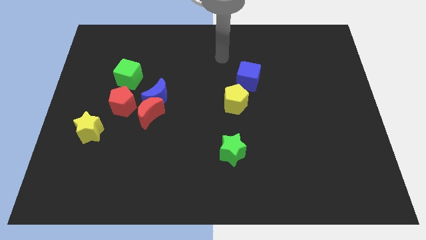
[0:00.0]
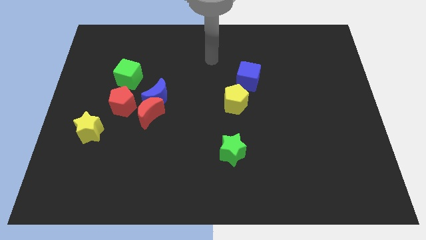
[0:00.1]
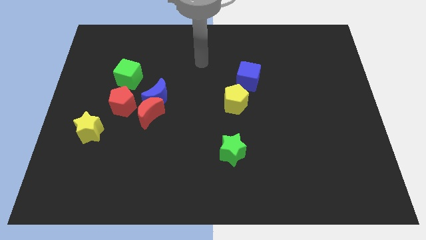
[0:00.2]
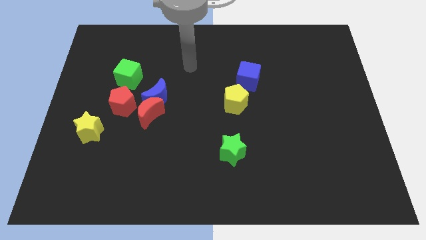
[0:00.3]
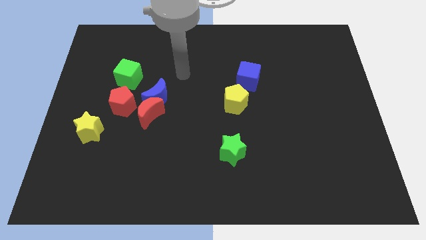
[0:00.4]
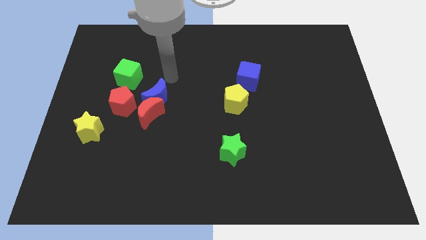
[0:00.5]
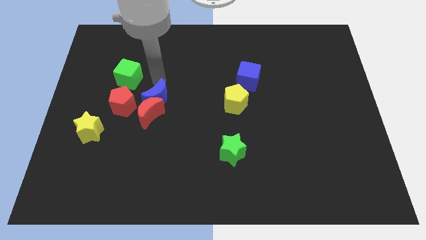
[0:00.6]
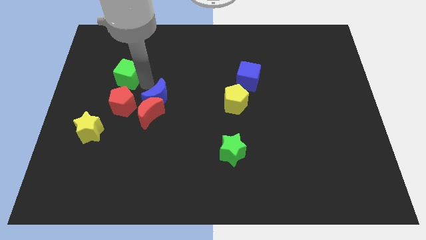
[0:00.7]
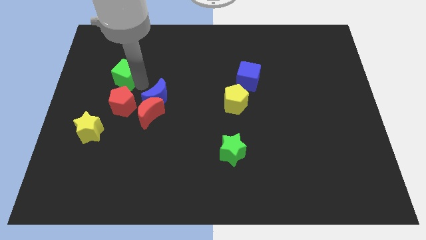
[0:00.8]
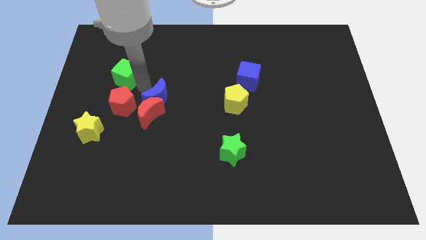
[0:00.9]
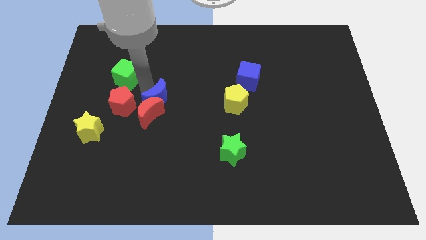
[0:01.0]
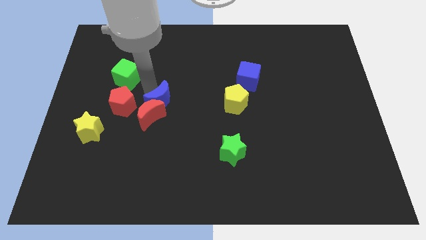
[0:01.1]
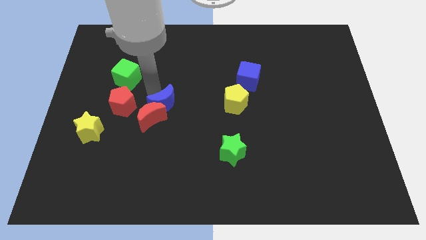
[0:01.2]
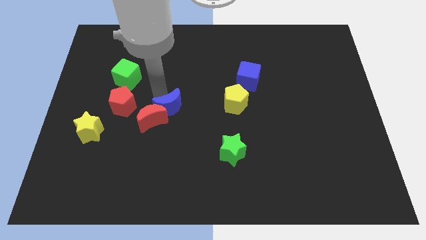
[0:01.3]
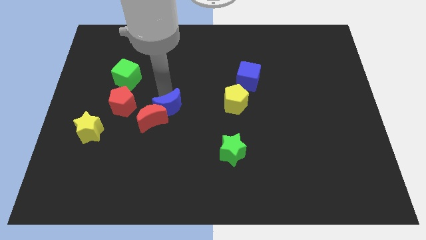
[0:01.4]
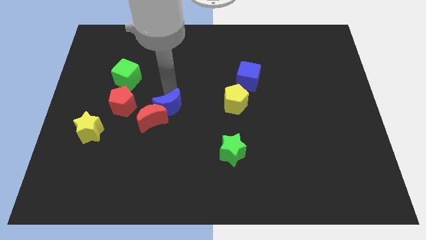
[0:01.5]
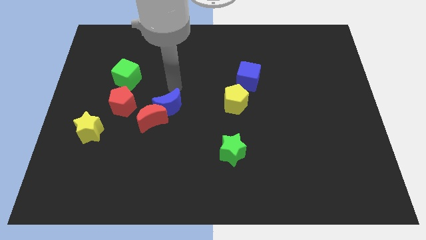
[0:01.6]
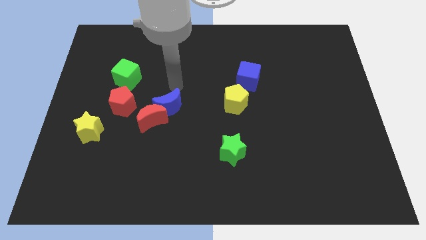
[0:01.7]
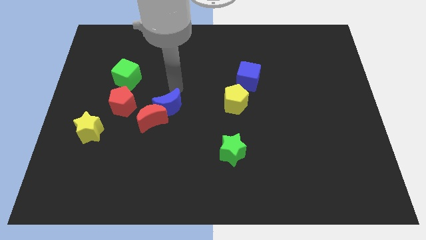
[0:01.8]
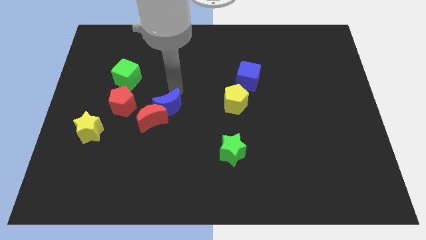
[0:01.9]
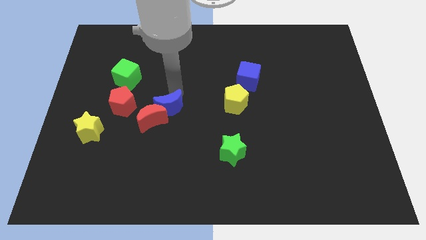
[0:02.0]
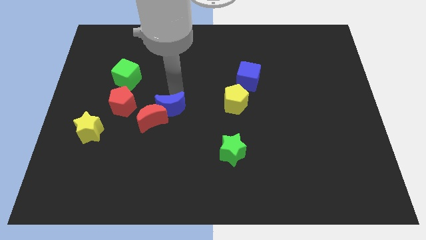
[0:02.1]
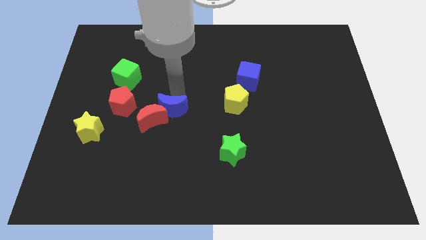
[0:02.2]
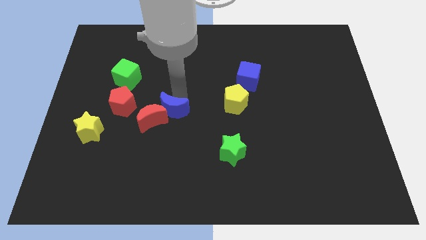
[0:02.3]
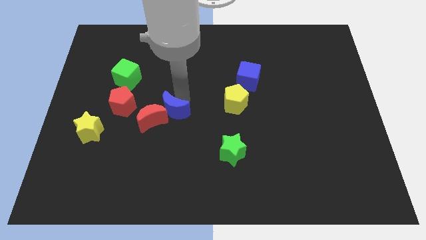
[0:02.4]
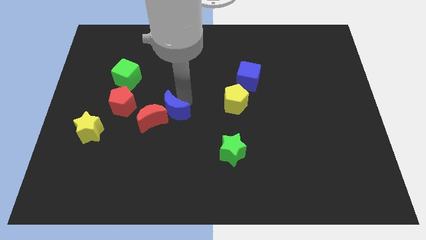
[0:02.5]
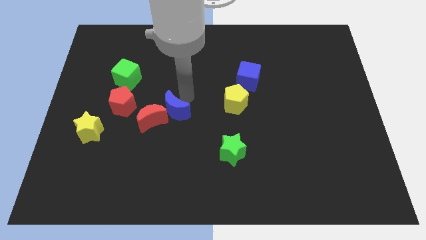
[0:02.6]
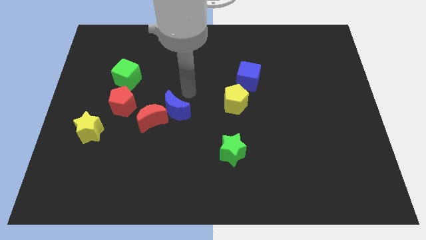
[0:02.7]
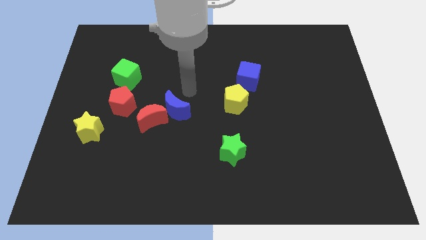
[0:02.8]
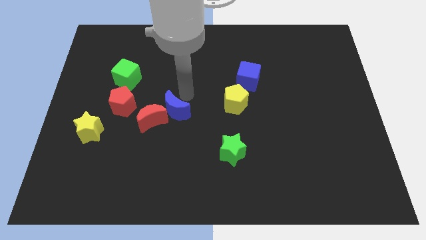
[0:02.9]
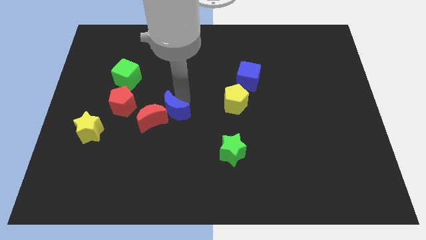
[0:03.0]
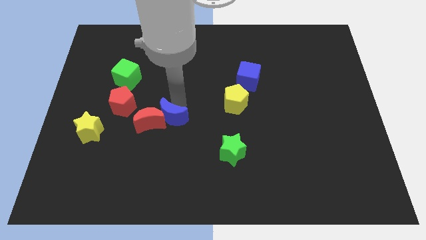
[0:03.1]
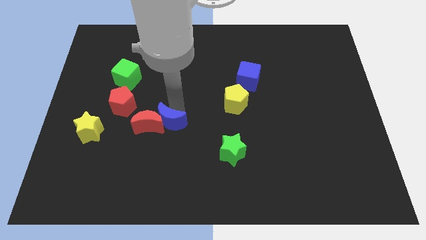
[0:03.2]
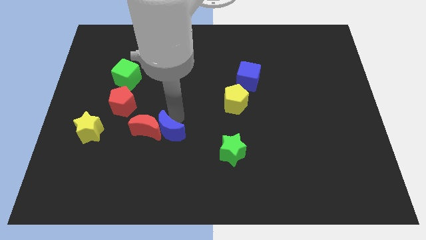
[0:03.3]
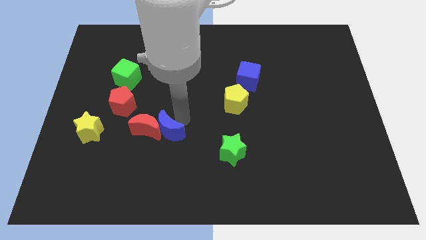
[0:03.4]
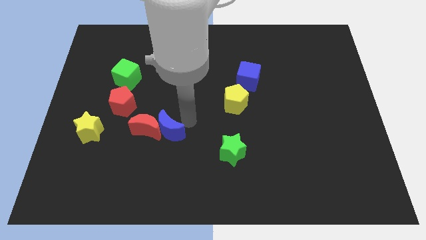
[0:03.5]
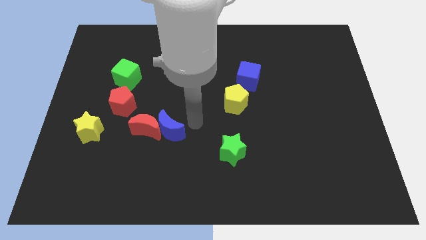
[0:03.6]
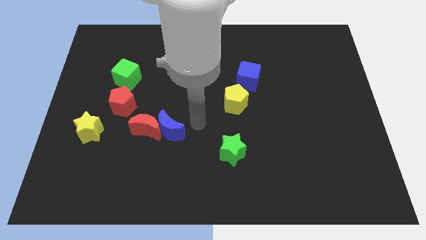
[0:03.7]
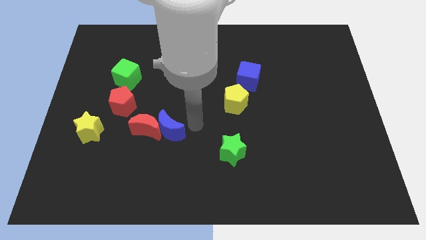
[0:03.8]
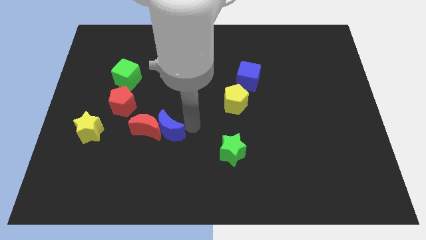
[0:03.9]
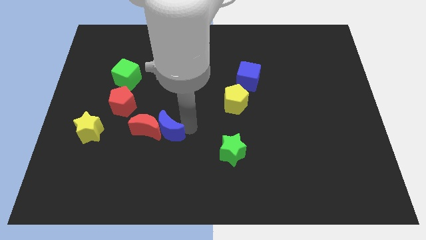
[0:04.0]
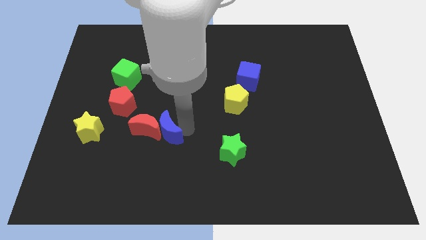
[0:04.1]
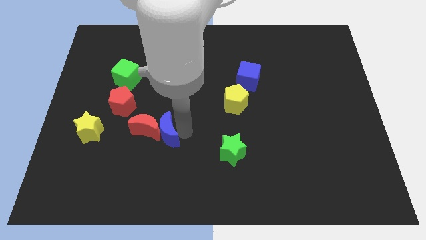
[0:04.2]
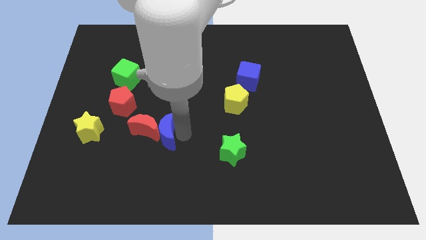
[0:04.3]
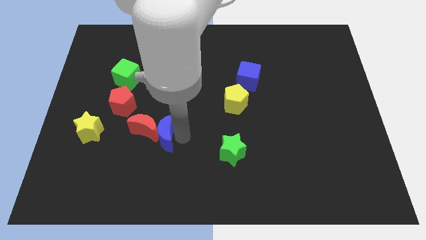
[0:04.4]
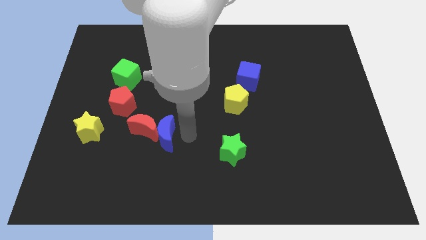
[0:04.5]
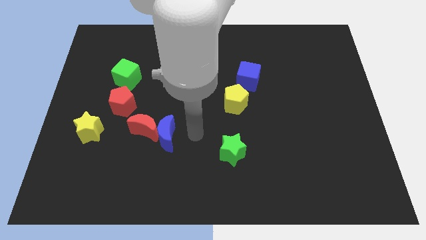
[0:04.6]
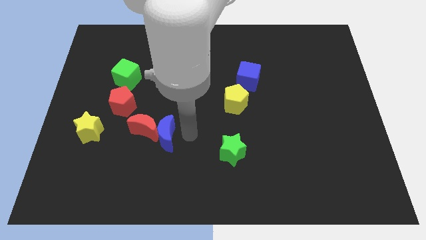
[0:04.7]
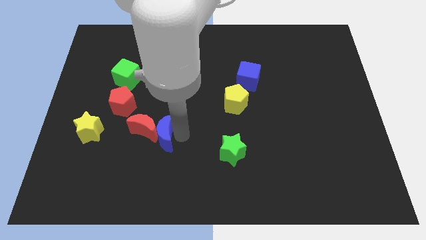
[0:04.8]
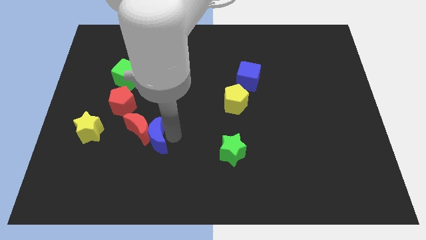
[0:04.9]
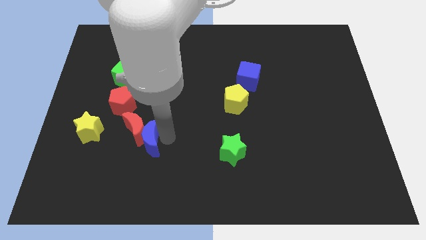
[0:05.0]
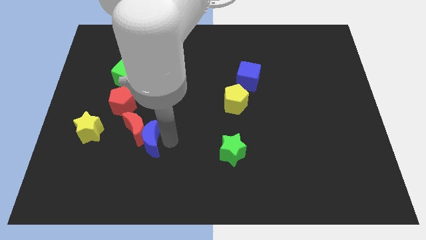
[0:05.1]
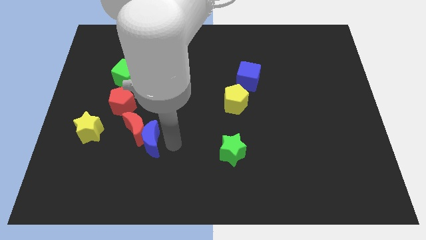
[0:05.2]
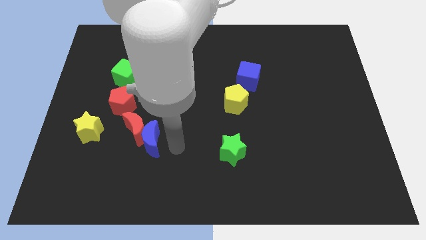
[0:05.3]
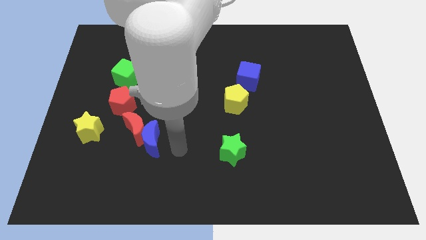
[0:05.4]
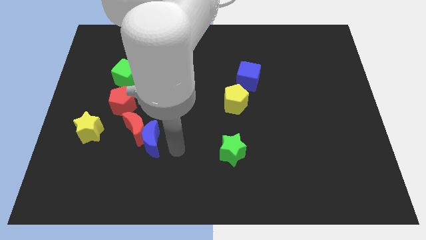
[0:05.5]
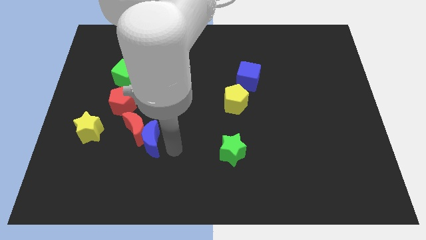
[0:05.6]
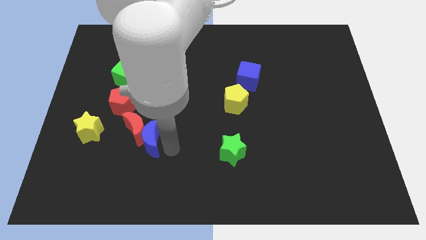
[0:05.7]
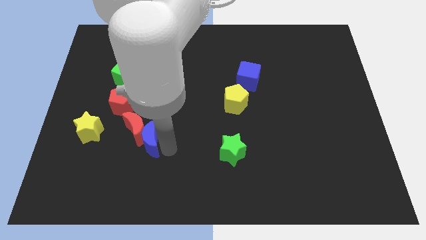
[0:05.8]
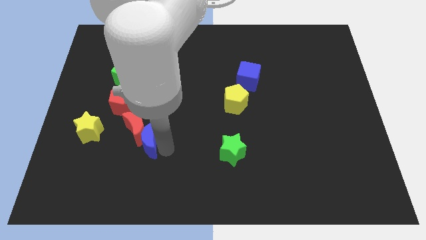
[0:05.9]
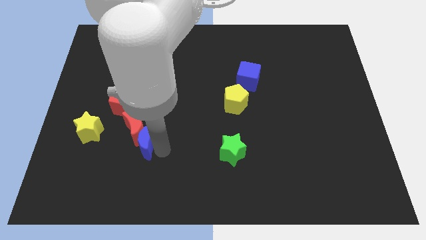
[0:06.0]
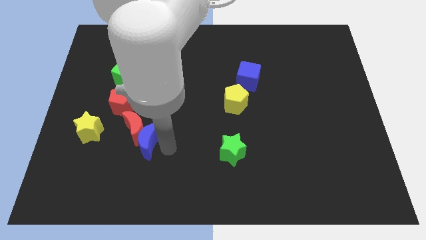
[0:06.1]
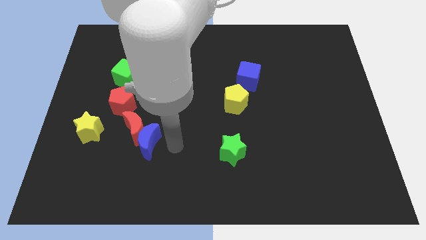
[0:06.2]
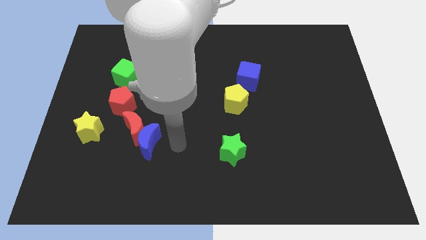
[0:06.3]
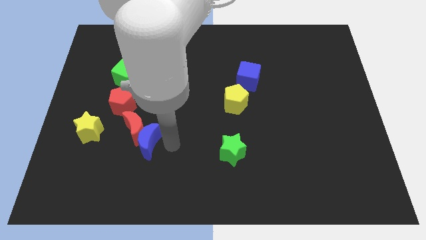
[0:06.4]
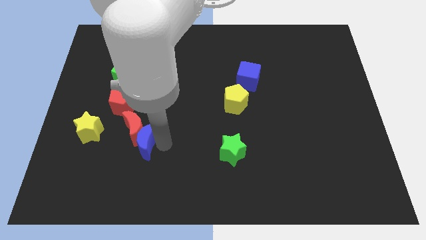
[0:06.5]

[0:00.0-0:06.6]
slide the blue moon down and then to the left a bit

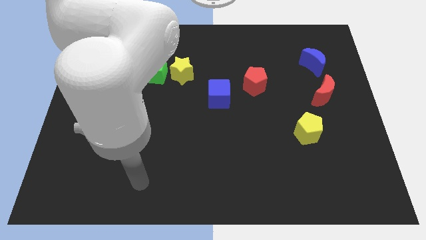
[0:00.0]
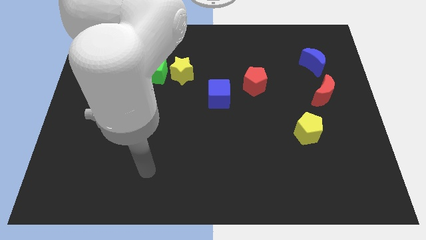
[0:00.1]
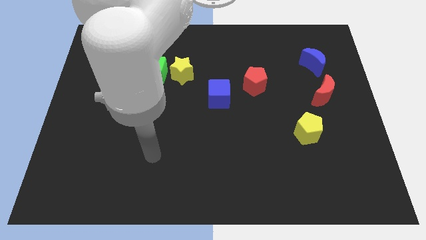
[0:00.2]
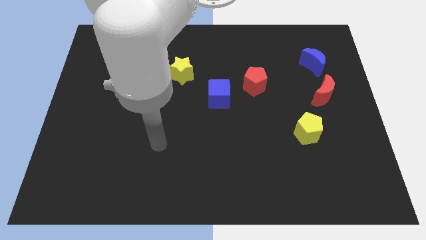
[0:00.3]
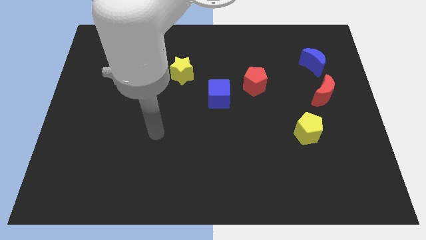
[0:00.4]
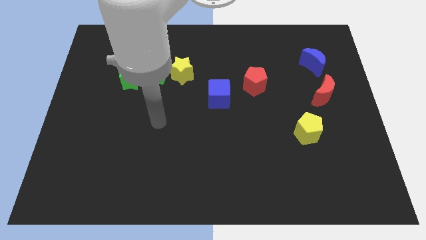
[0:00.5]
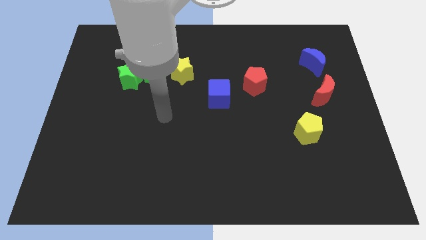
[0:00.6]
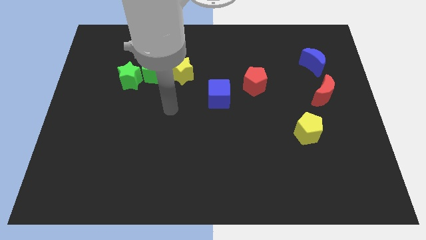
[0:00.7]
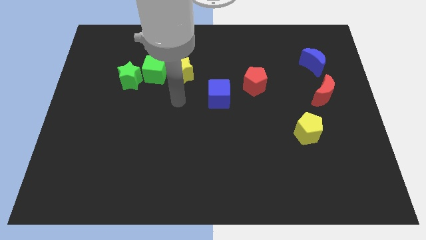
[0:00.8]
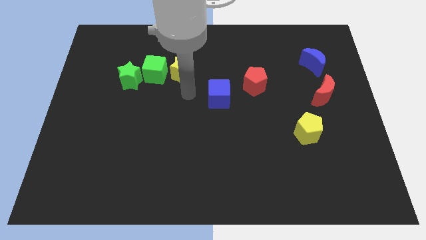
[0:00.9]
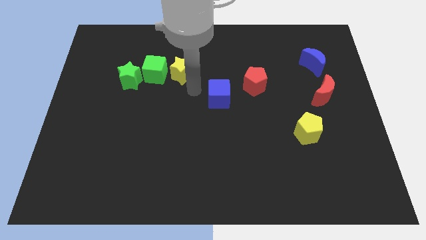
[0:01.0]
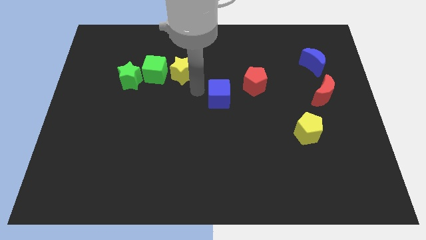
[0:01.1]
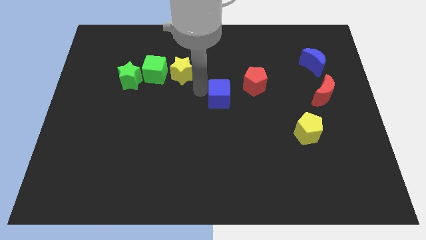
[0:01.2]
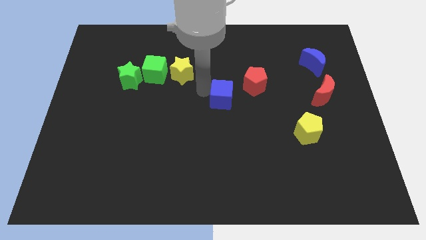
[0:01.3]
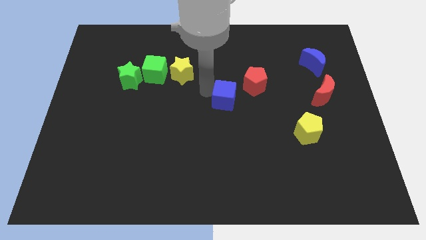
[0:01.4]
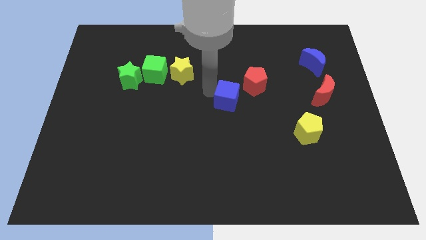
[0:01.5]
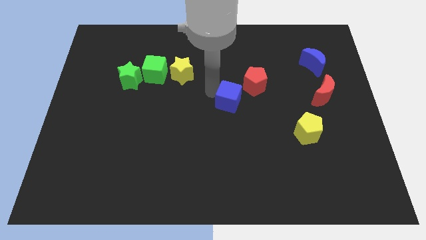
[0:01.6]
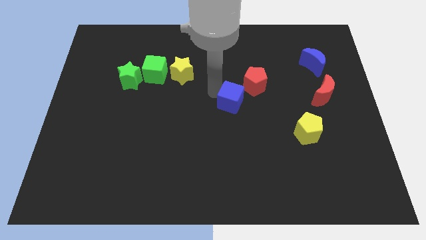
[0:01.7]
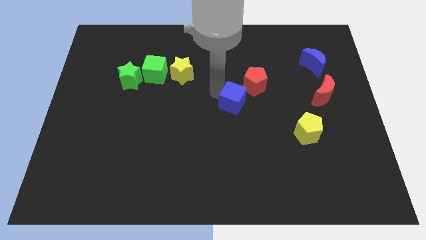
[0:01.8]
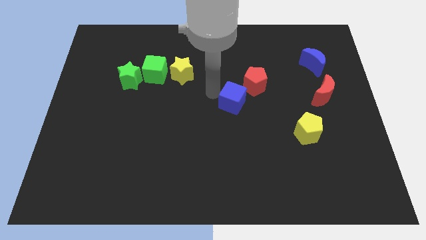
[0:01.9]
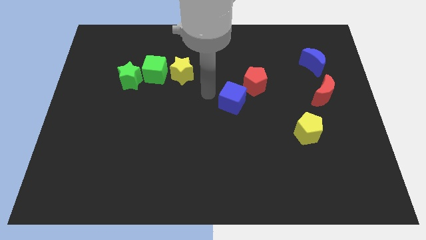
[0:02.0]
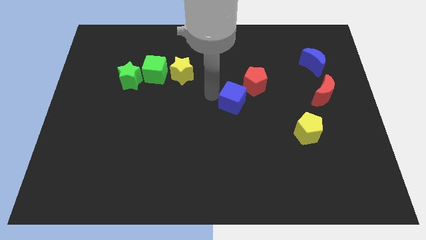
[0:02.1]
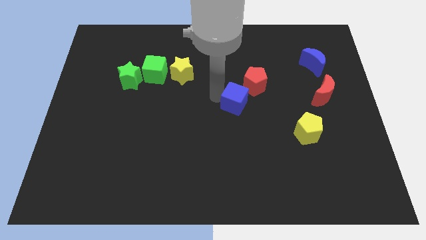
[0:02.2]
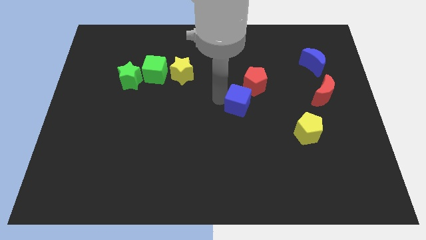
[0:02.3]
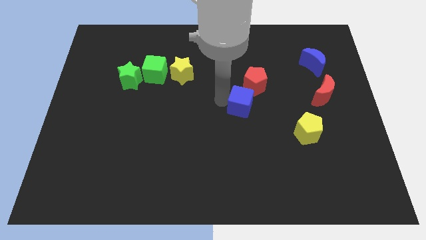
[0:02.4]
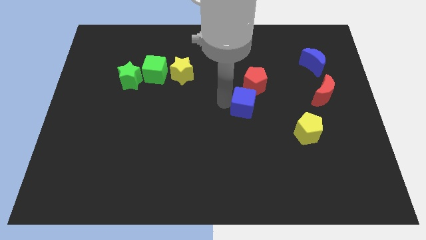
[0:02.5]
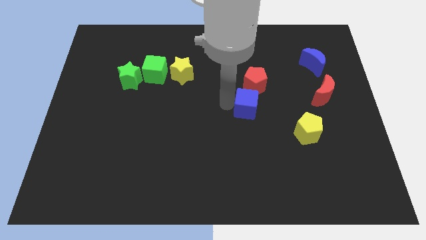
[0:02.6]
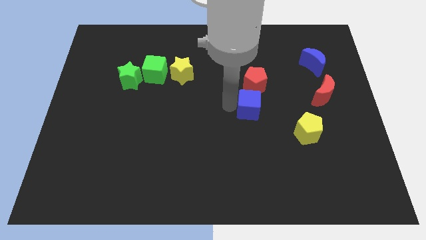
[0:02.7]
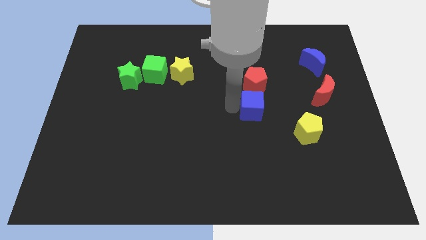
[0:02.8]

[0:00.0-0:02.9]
move the blue cube somewhat right
